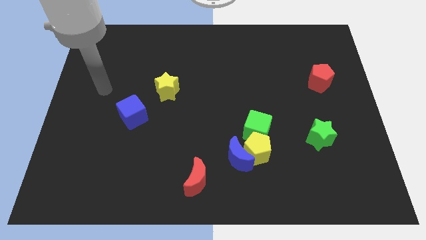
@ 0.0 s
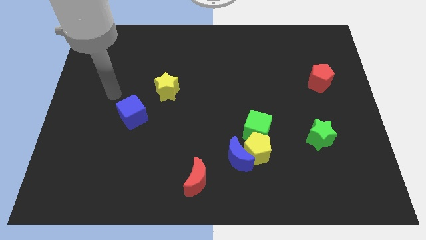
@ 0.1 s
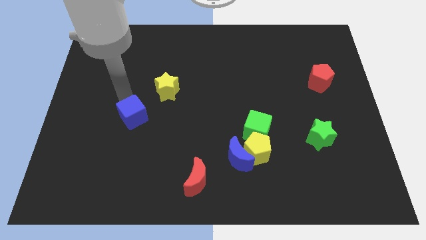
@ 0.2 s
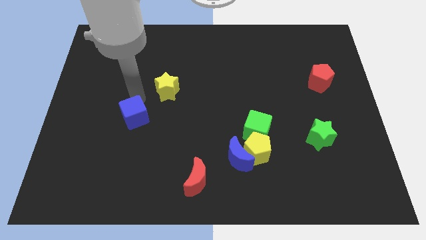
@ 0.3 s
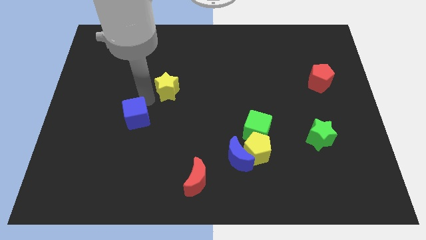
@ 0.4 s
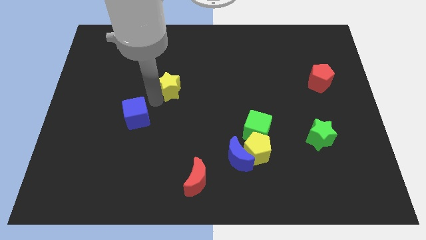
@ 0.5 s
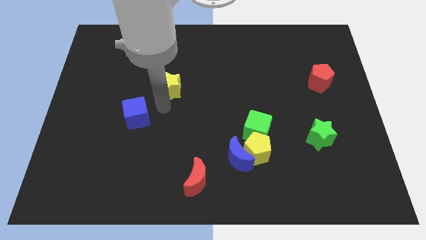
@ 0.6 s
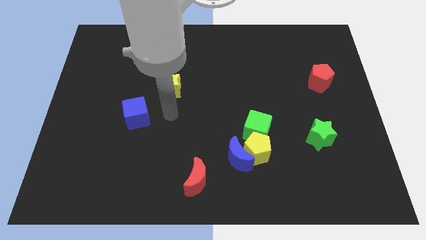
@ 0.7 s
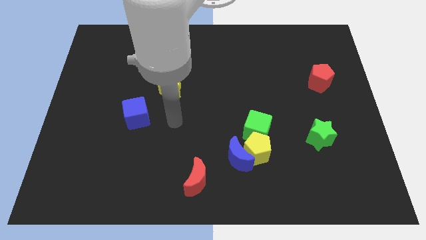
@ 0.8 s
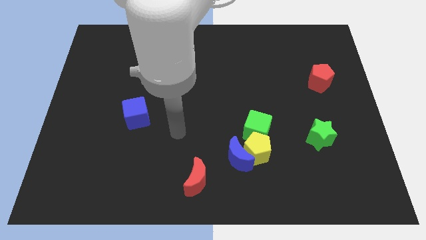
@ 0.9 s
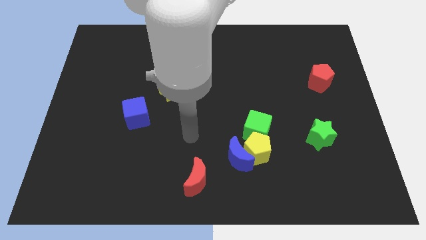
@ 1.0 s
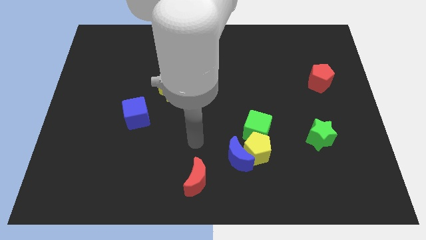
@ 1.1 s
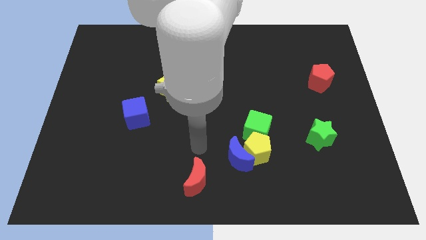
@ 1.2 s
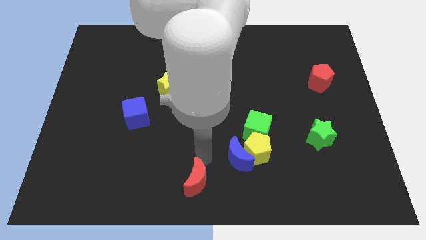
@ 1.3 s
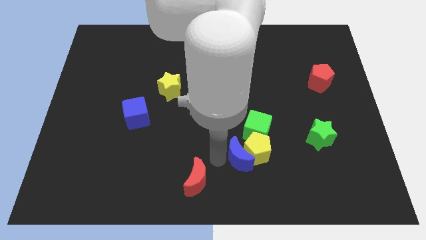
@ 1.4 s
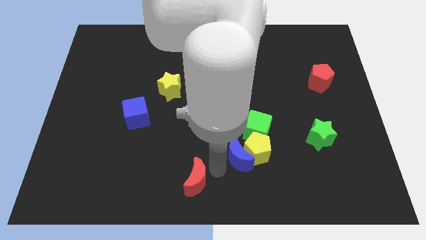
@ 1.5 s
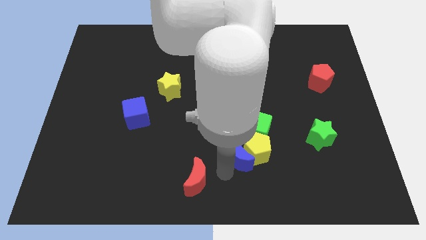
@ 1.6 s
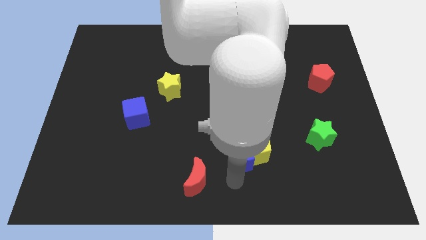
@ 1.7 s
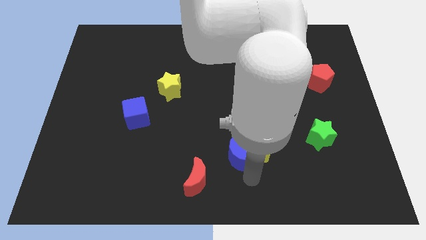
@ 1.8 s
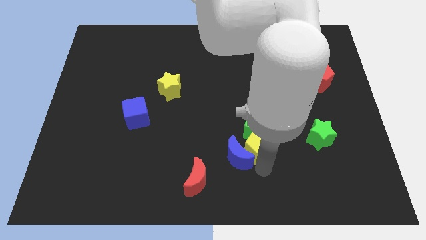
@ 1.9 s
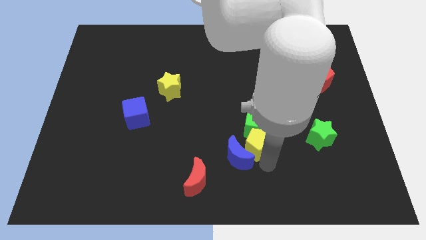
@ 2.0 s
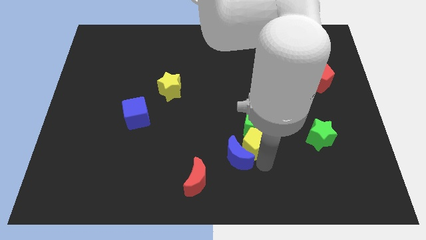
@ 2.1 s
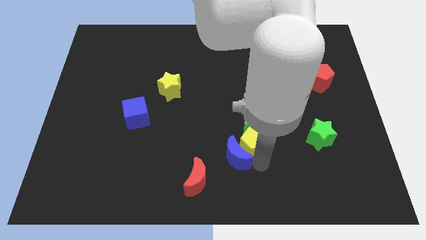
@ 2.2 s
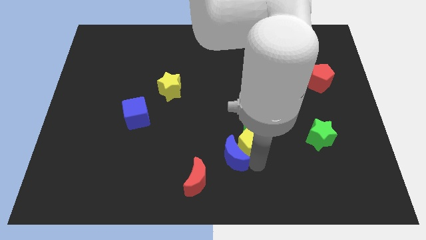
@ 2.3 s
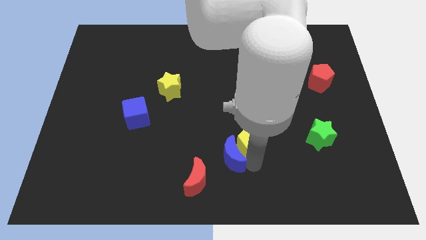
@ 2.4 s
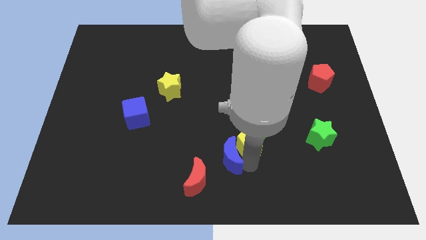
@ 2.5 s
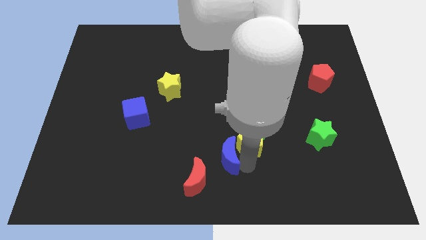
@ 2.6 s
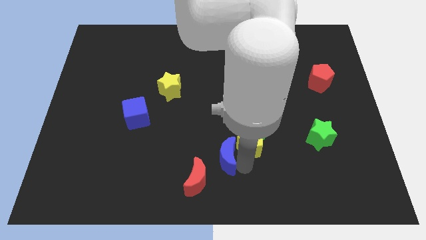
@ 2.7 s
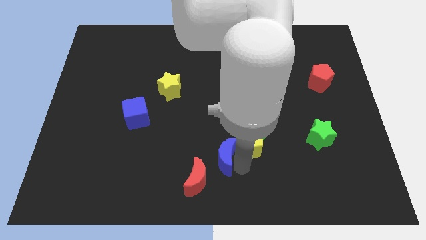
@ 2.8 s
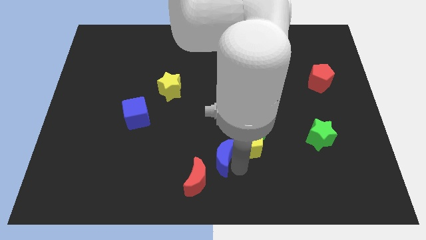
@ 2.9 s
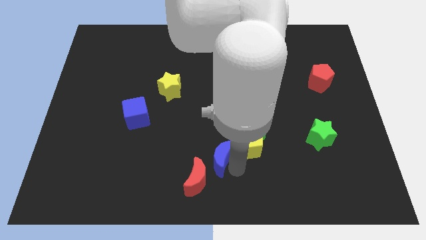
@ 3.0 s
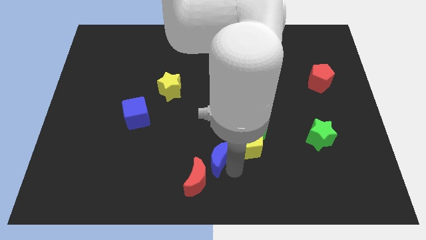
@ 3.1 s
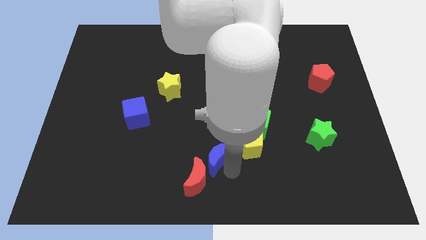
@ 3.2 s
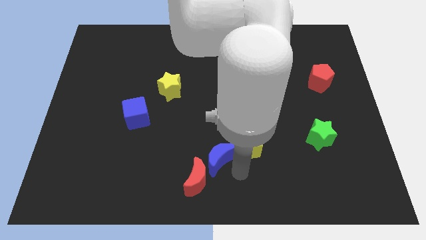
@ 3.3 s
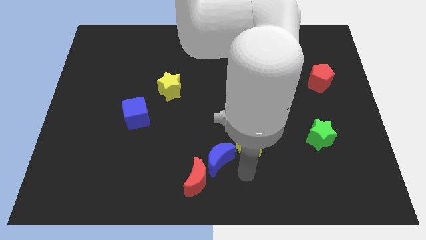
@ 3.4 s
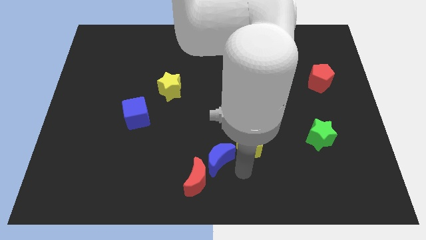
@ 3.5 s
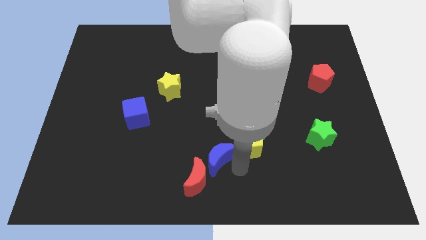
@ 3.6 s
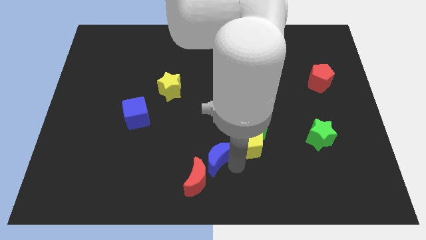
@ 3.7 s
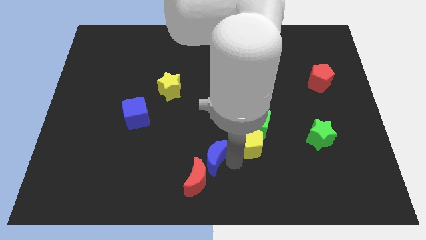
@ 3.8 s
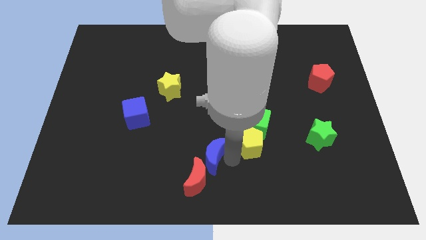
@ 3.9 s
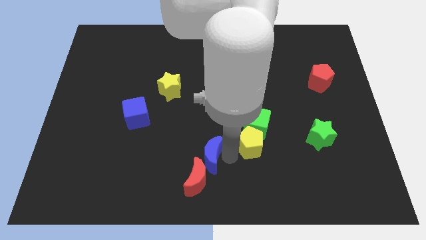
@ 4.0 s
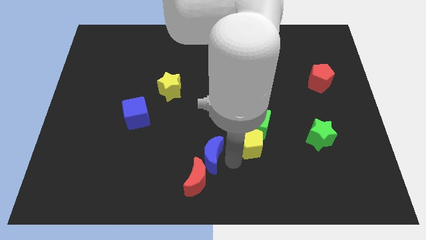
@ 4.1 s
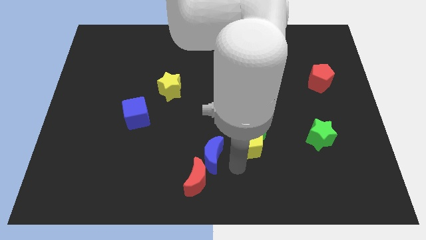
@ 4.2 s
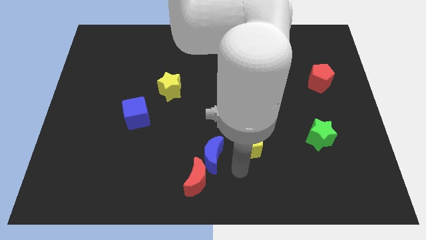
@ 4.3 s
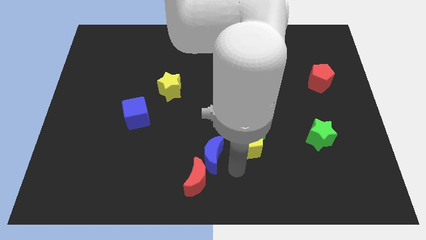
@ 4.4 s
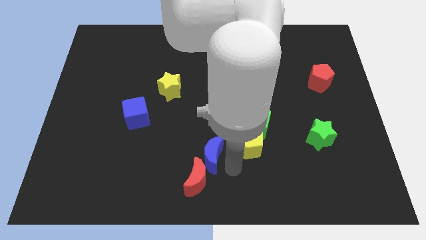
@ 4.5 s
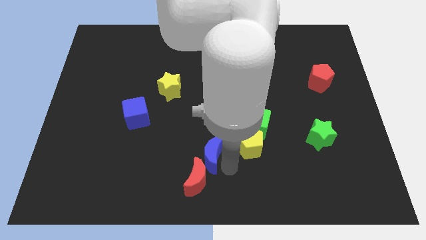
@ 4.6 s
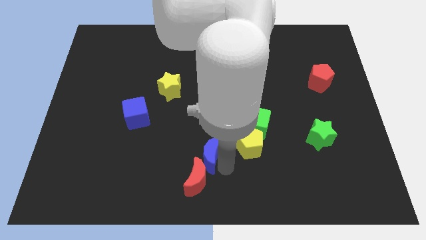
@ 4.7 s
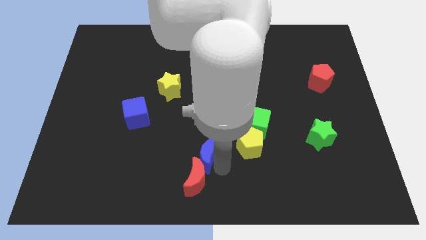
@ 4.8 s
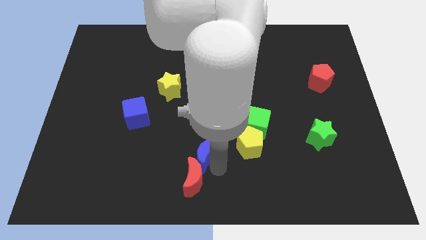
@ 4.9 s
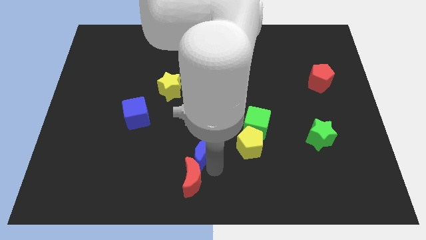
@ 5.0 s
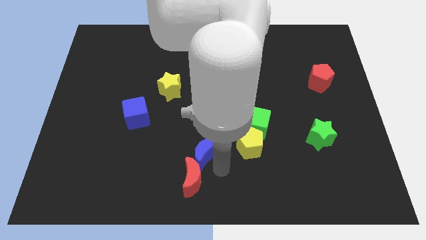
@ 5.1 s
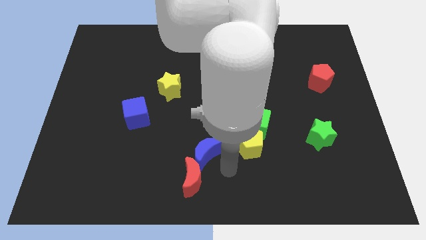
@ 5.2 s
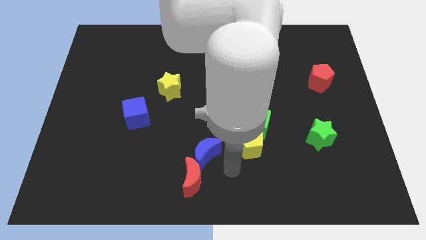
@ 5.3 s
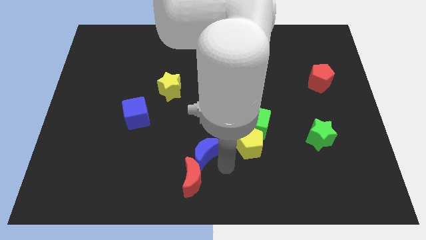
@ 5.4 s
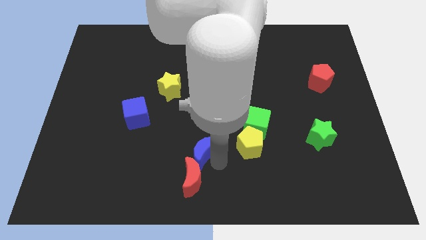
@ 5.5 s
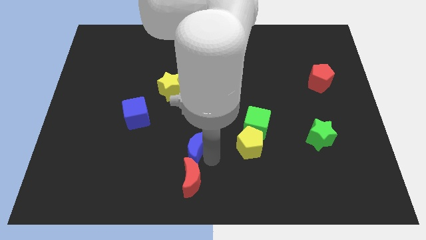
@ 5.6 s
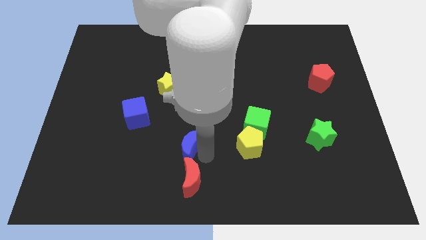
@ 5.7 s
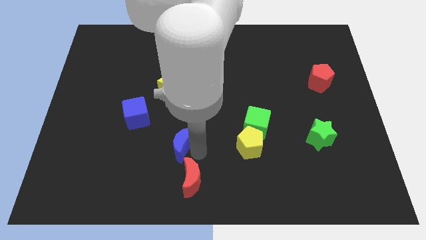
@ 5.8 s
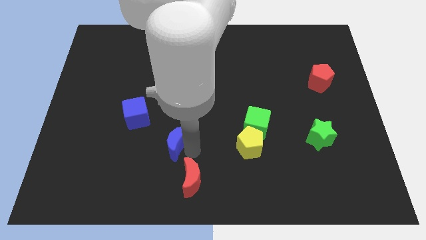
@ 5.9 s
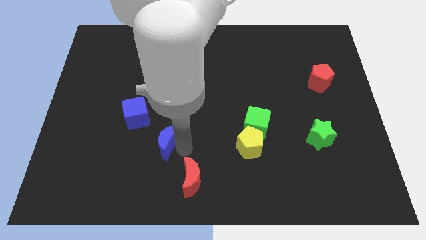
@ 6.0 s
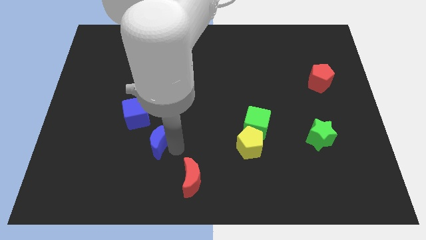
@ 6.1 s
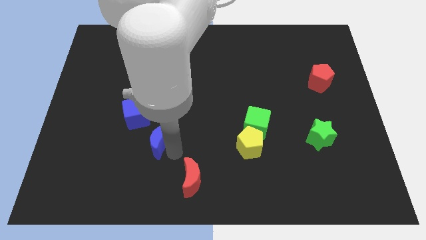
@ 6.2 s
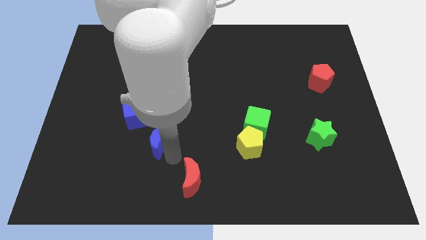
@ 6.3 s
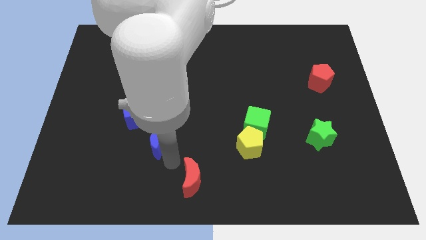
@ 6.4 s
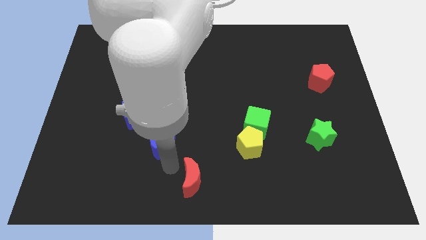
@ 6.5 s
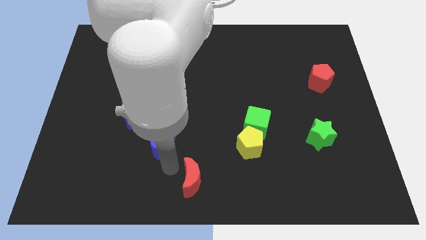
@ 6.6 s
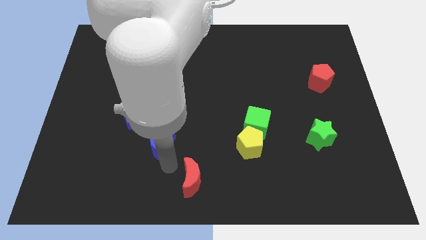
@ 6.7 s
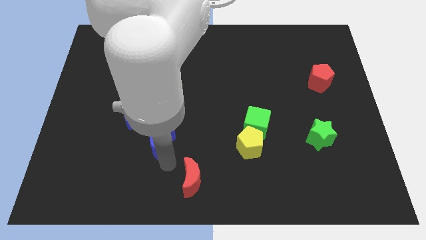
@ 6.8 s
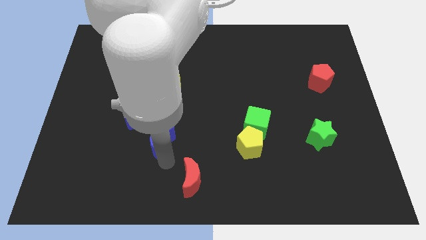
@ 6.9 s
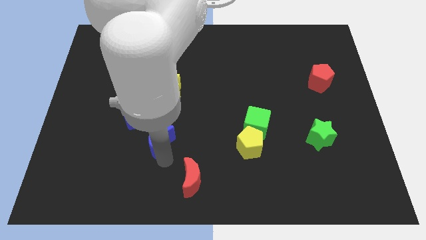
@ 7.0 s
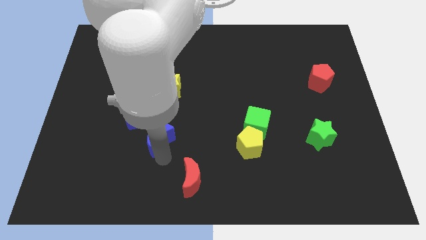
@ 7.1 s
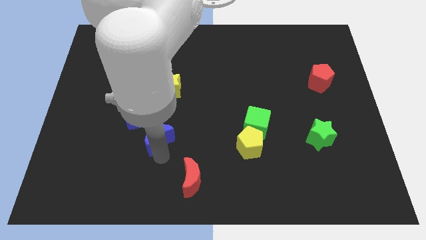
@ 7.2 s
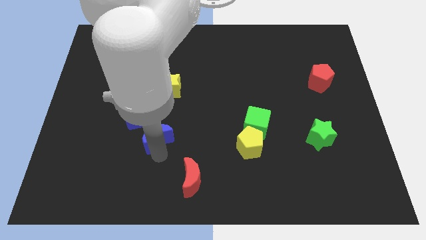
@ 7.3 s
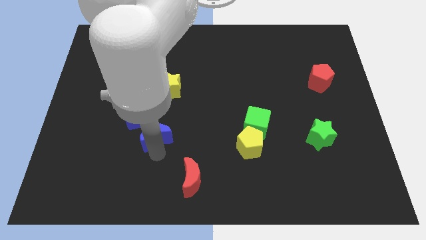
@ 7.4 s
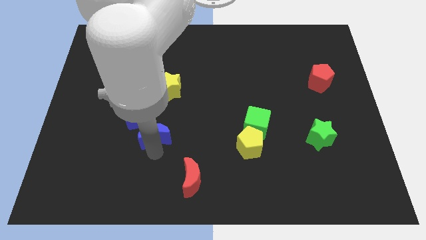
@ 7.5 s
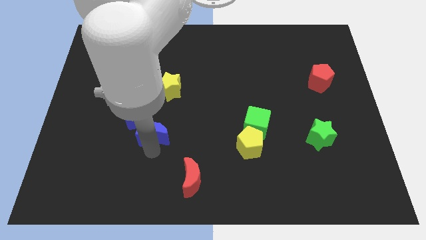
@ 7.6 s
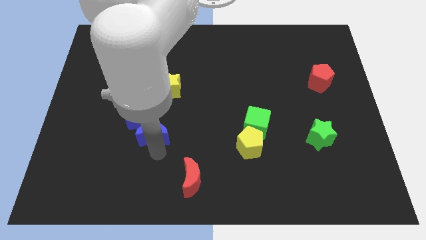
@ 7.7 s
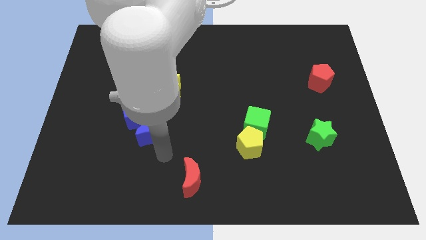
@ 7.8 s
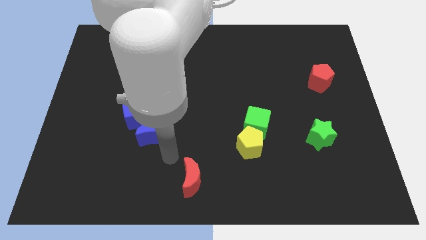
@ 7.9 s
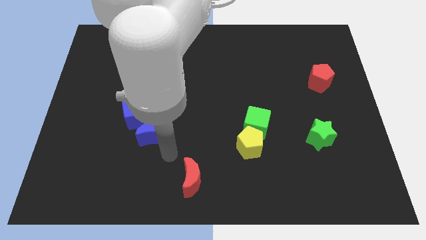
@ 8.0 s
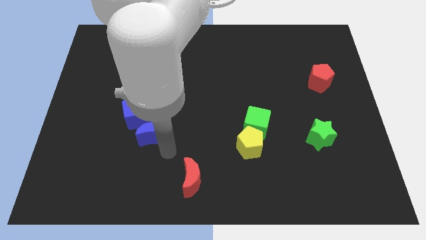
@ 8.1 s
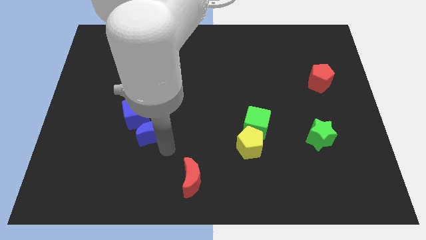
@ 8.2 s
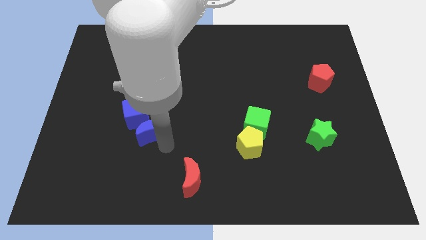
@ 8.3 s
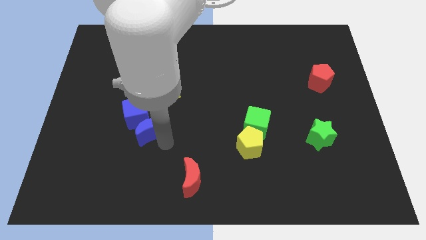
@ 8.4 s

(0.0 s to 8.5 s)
push the blue moon next to the blue cube
